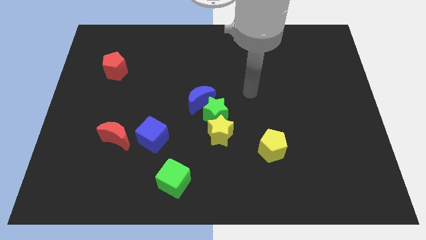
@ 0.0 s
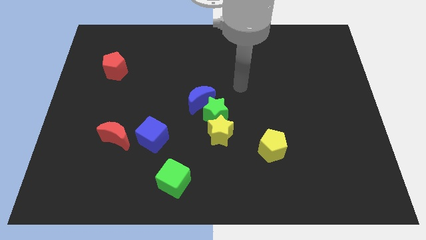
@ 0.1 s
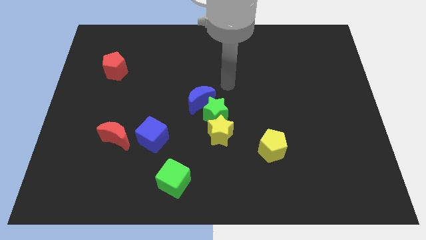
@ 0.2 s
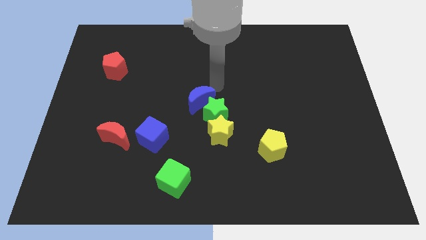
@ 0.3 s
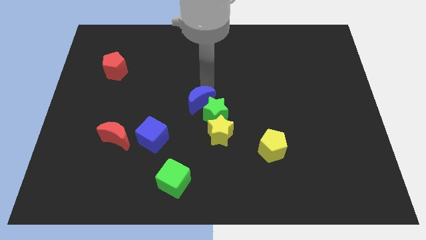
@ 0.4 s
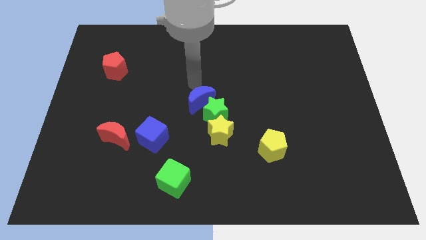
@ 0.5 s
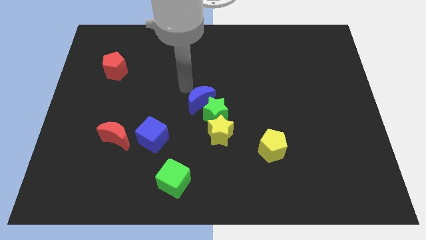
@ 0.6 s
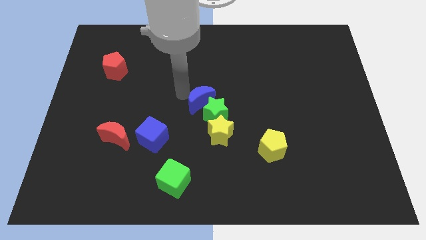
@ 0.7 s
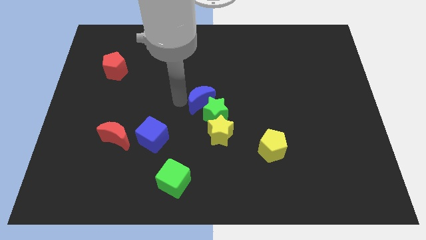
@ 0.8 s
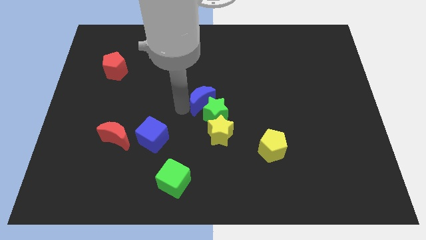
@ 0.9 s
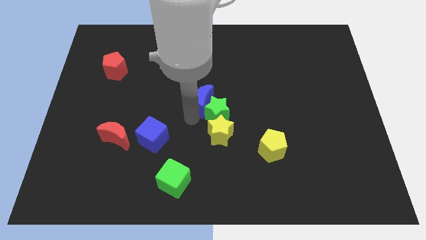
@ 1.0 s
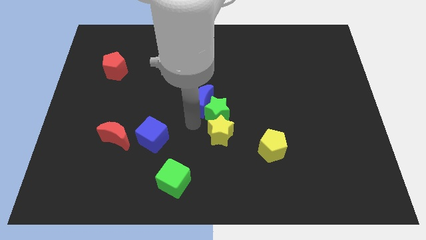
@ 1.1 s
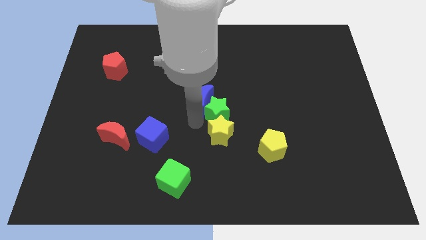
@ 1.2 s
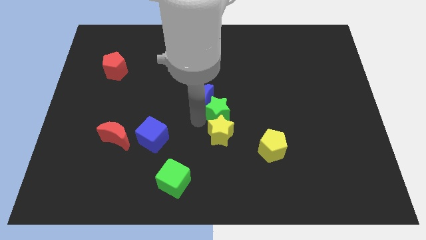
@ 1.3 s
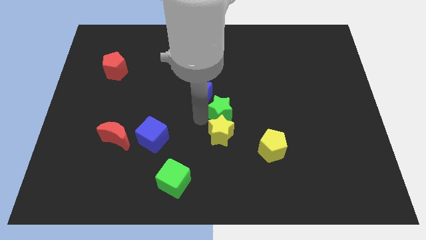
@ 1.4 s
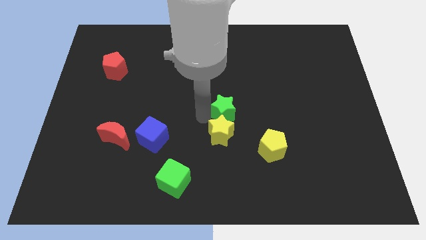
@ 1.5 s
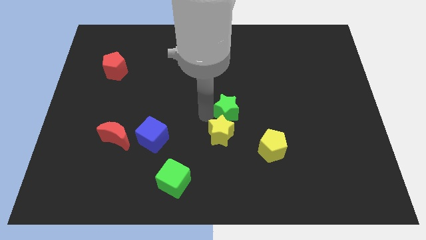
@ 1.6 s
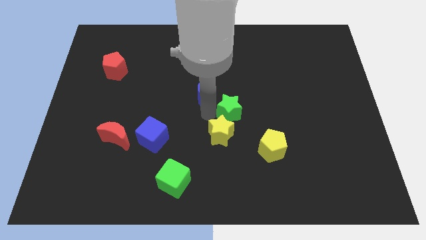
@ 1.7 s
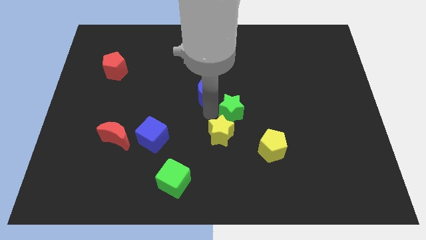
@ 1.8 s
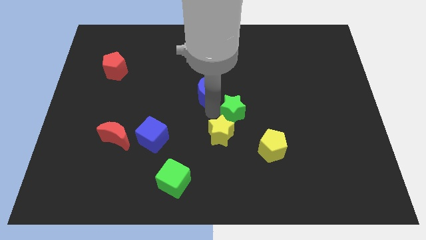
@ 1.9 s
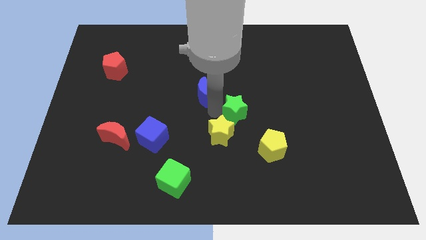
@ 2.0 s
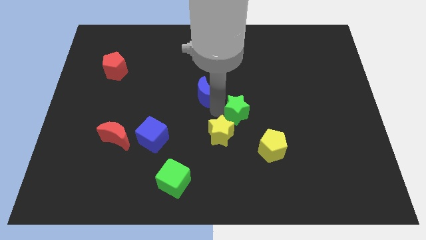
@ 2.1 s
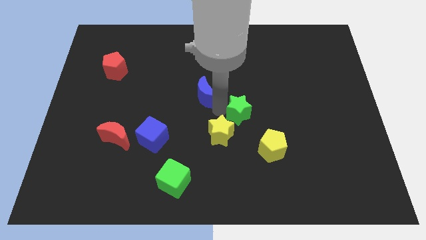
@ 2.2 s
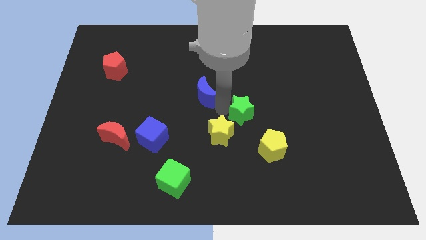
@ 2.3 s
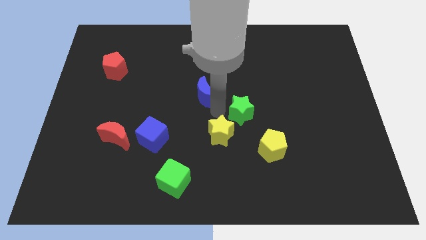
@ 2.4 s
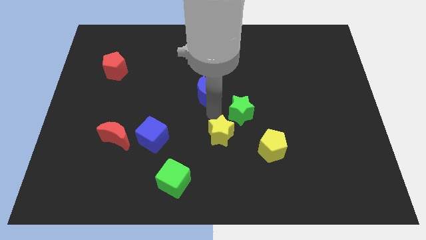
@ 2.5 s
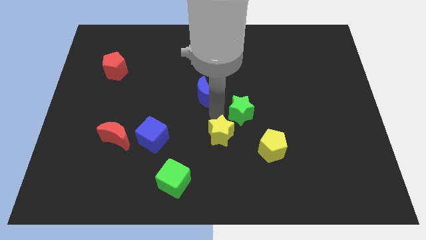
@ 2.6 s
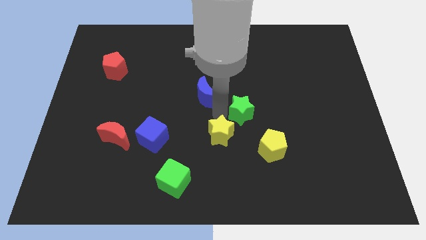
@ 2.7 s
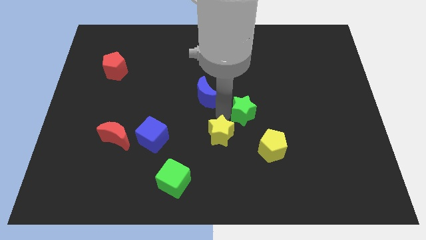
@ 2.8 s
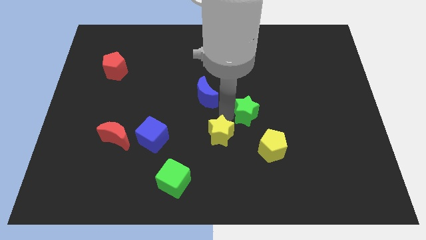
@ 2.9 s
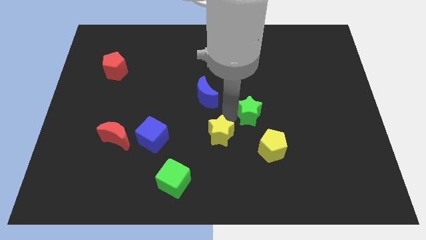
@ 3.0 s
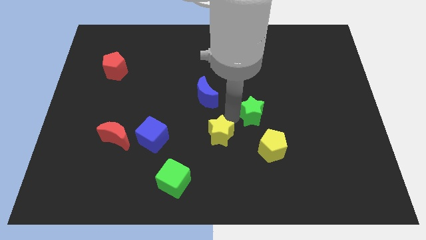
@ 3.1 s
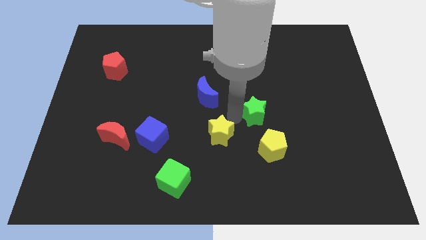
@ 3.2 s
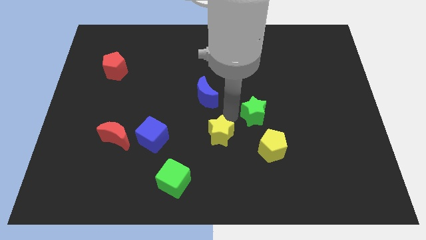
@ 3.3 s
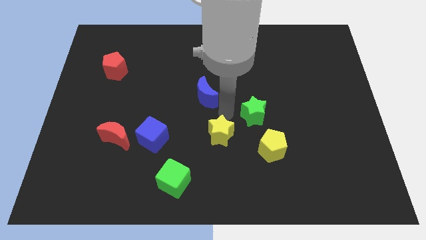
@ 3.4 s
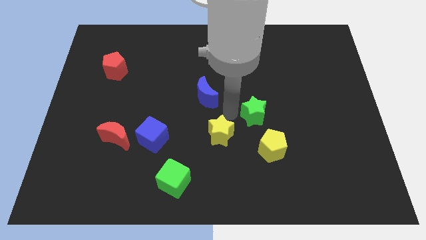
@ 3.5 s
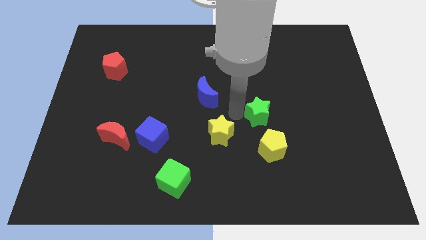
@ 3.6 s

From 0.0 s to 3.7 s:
separate the green star from the yellow star and blue moon

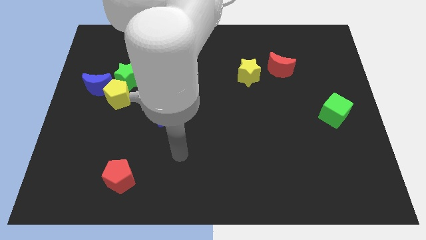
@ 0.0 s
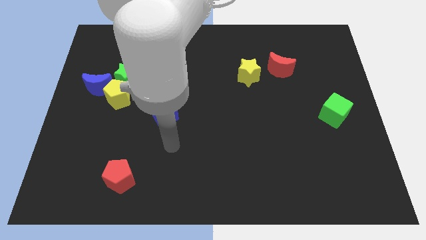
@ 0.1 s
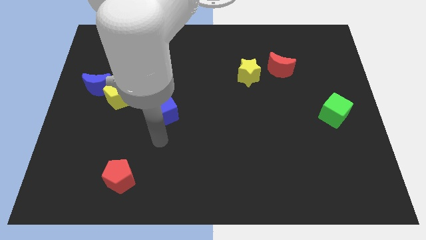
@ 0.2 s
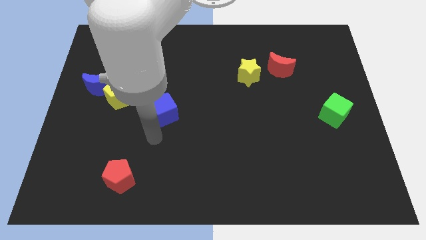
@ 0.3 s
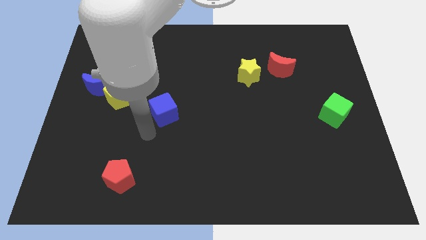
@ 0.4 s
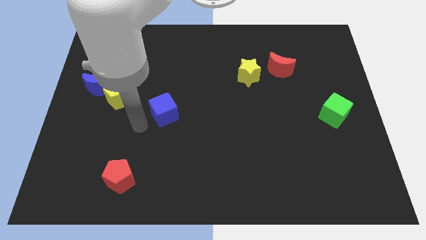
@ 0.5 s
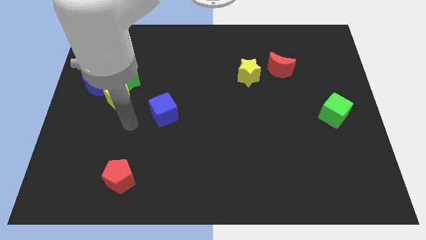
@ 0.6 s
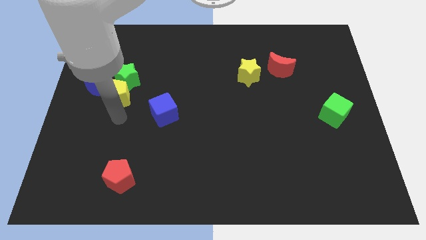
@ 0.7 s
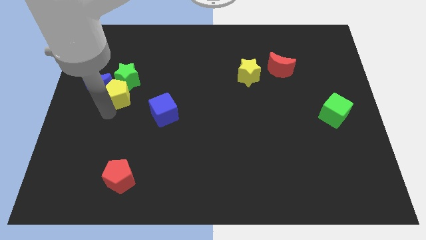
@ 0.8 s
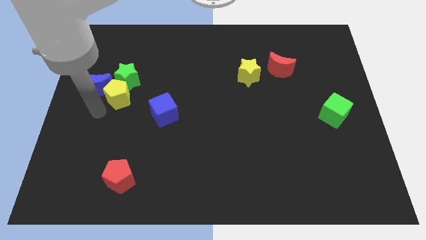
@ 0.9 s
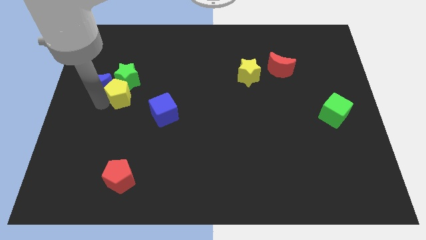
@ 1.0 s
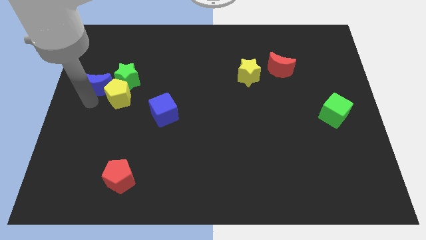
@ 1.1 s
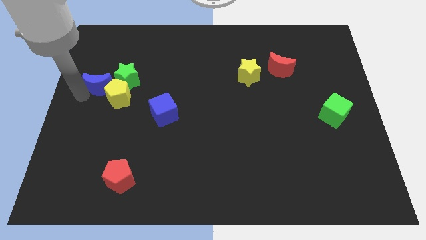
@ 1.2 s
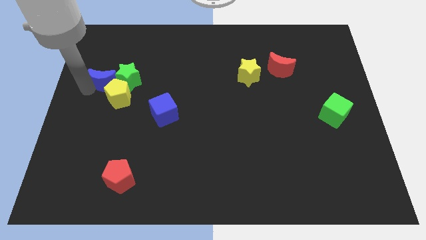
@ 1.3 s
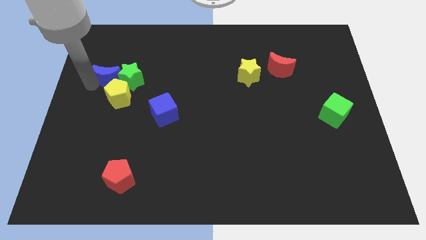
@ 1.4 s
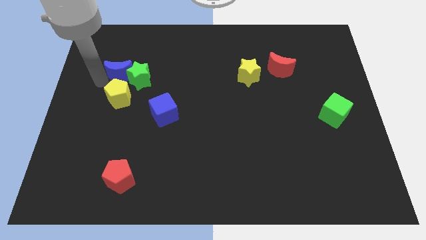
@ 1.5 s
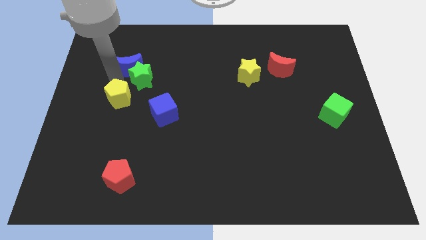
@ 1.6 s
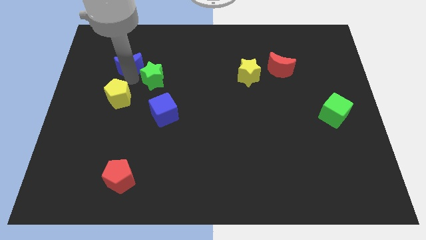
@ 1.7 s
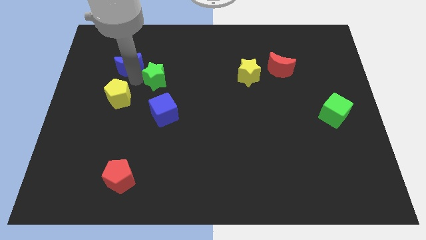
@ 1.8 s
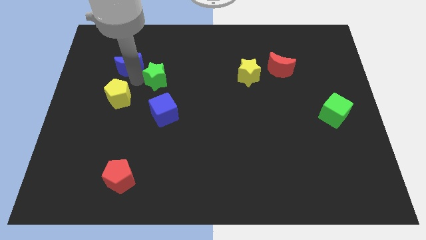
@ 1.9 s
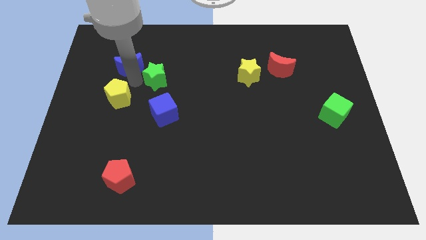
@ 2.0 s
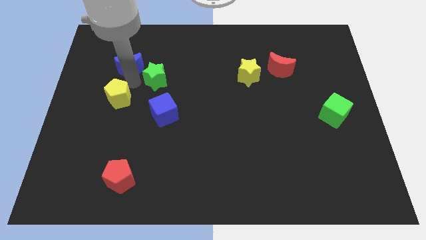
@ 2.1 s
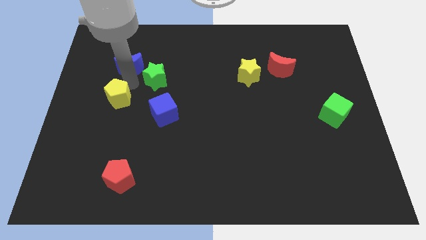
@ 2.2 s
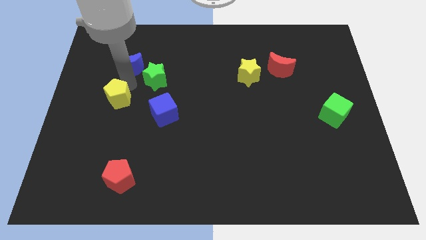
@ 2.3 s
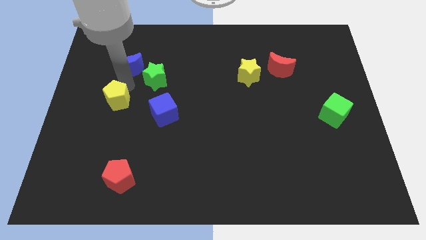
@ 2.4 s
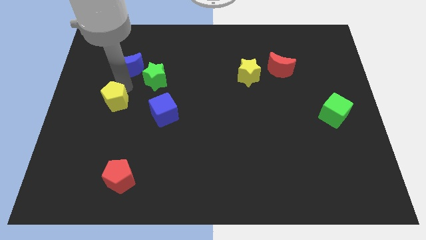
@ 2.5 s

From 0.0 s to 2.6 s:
pull the yellow pentagon apart from the blue moon and green star

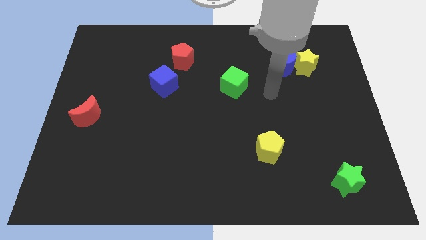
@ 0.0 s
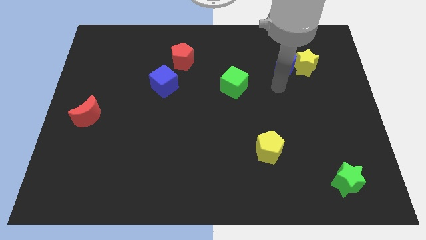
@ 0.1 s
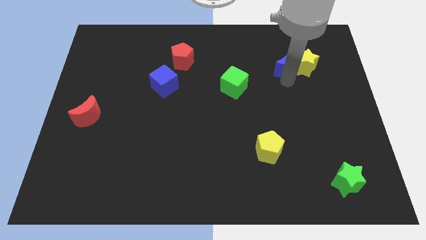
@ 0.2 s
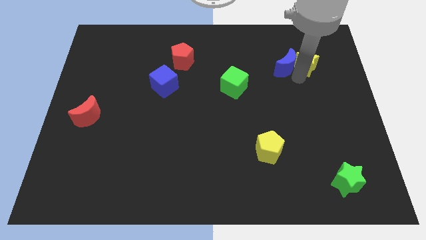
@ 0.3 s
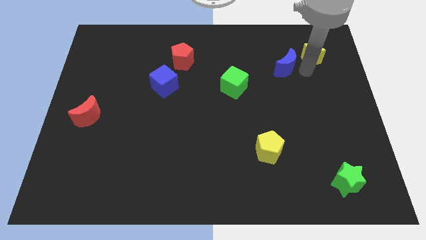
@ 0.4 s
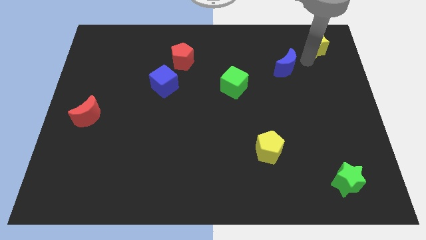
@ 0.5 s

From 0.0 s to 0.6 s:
pull the blue moon apart from the yellow star

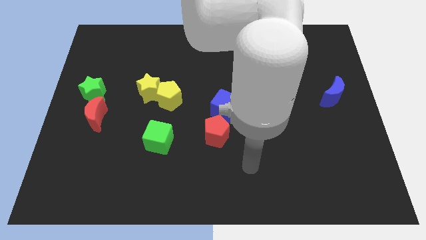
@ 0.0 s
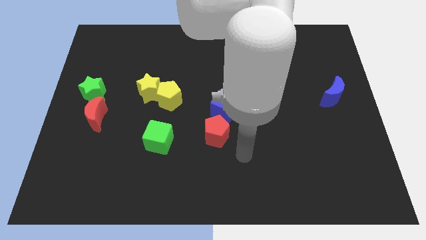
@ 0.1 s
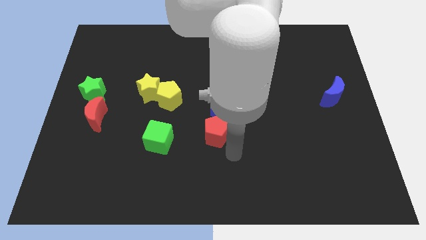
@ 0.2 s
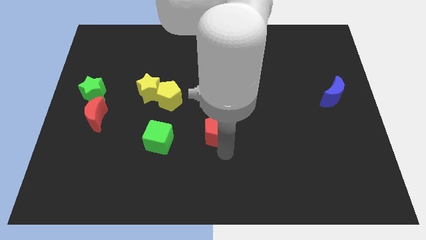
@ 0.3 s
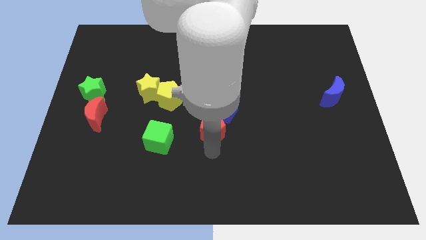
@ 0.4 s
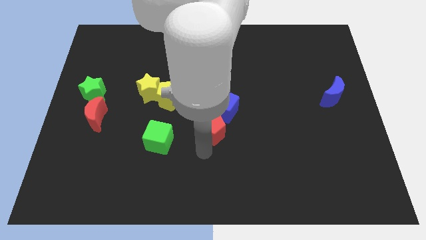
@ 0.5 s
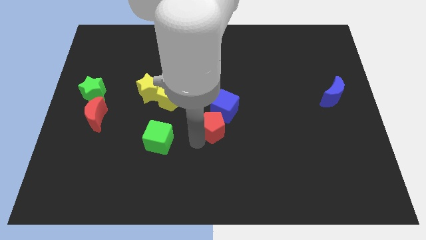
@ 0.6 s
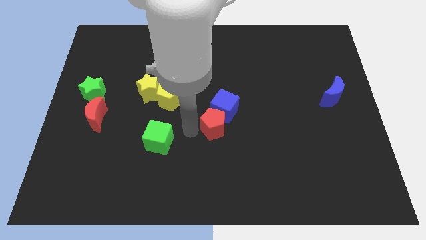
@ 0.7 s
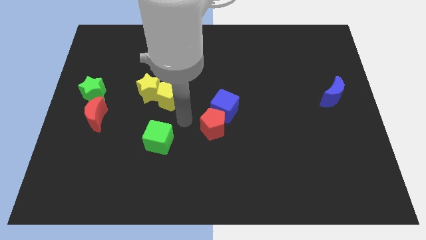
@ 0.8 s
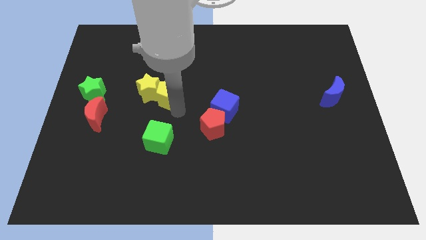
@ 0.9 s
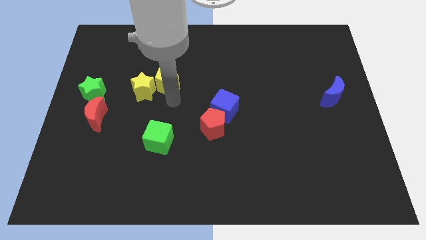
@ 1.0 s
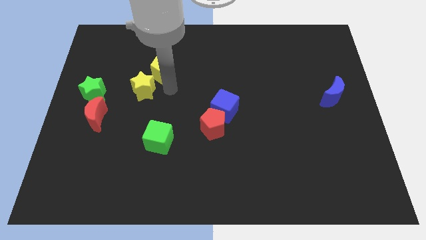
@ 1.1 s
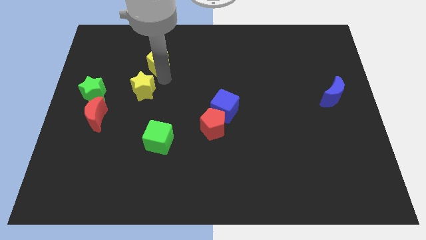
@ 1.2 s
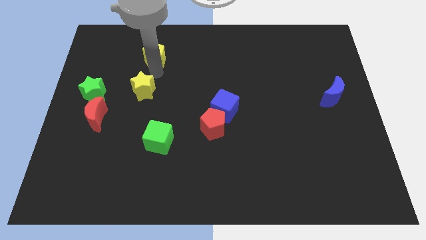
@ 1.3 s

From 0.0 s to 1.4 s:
move the yellow star away from the yellow pentagon

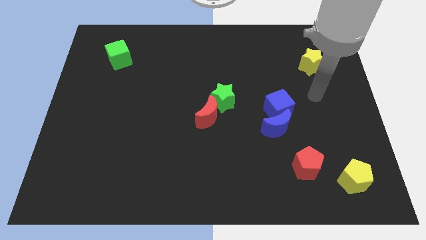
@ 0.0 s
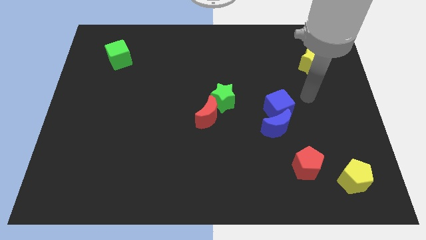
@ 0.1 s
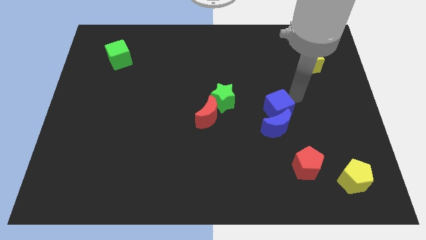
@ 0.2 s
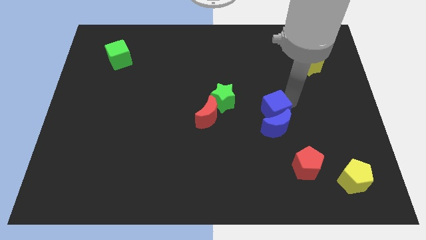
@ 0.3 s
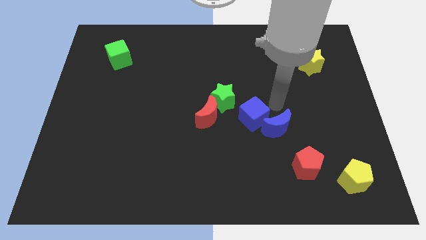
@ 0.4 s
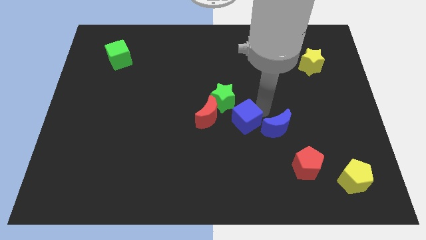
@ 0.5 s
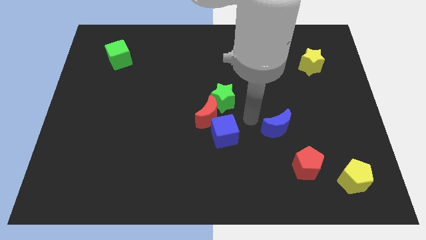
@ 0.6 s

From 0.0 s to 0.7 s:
separate the blue moon from the blue cube
